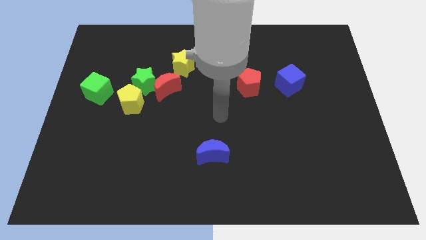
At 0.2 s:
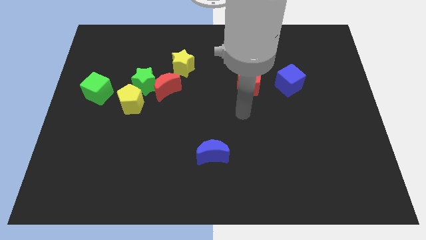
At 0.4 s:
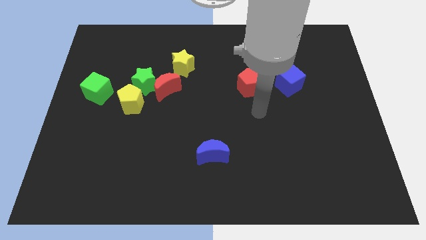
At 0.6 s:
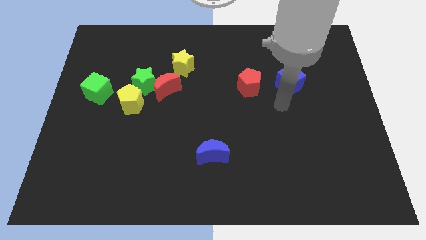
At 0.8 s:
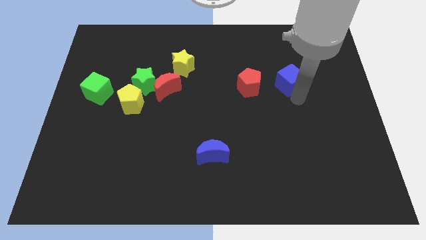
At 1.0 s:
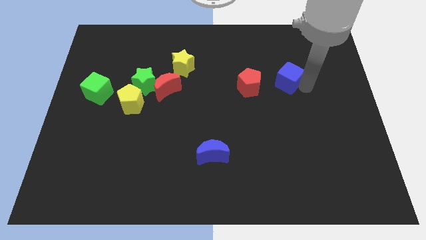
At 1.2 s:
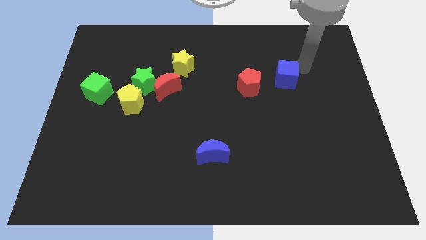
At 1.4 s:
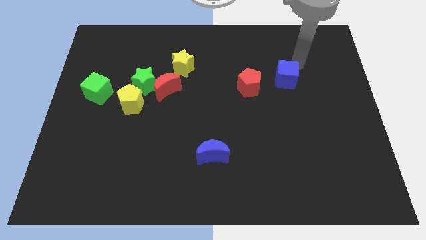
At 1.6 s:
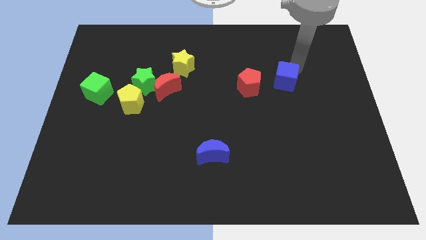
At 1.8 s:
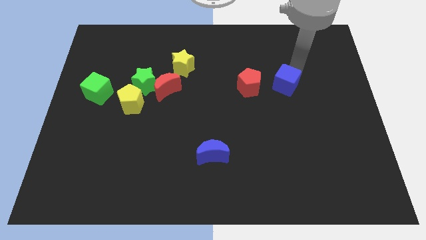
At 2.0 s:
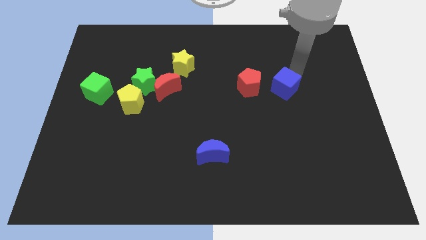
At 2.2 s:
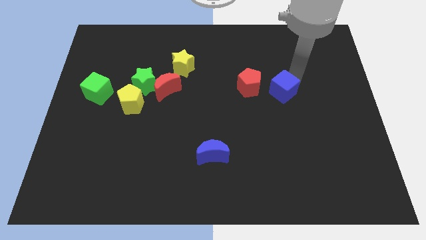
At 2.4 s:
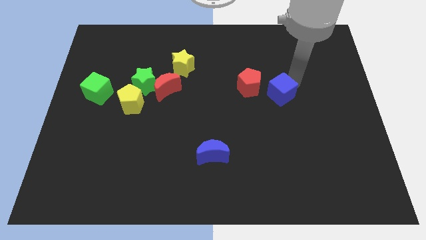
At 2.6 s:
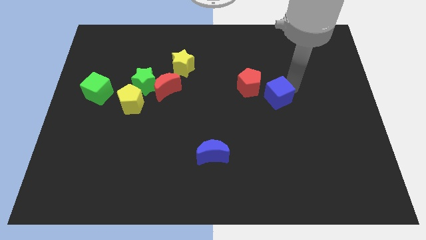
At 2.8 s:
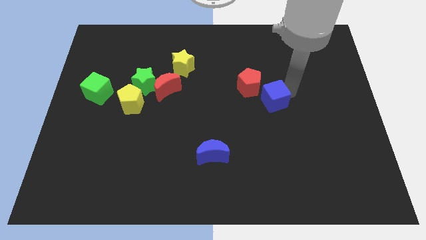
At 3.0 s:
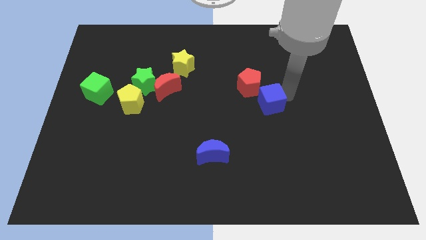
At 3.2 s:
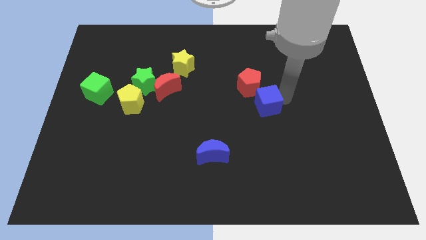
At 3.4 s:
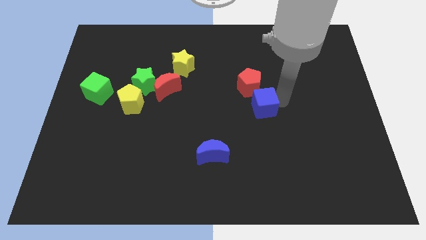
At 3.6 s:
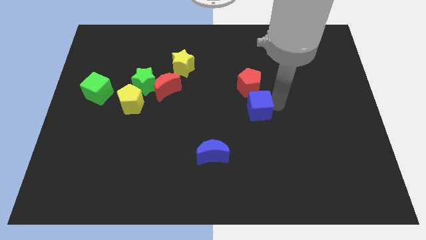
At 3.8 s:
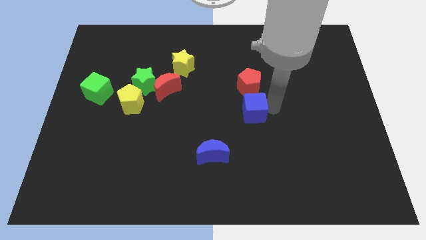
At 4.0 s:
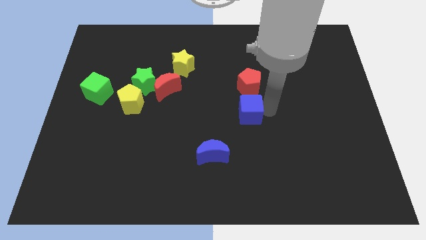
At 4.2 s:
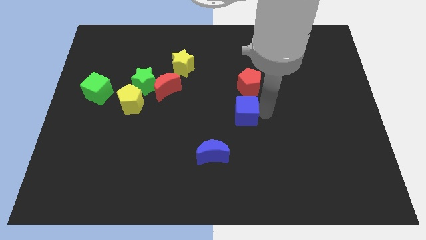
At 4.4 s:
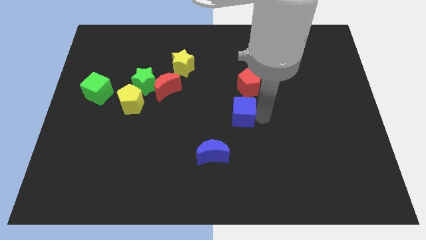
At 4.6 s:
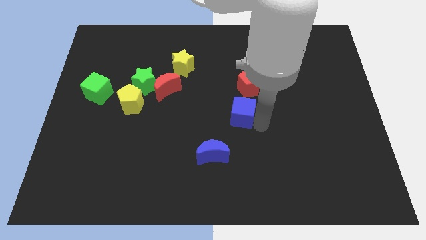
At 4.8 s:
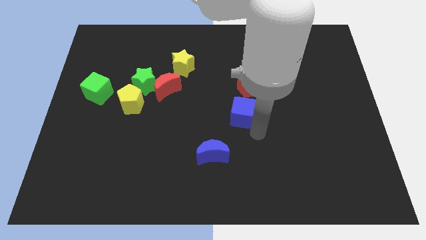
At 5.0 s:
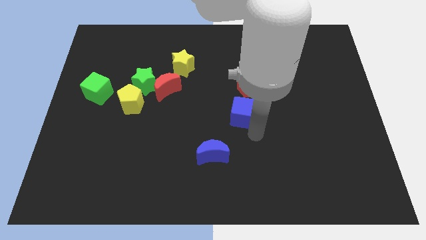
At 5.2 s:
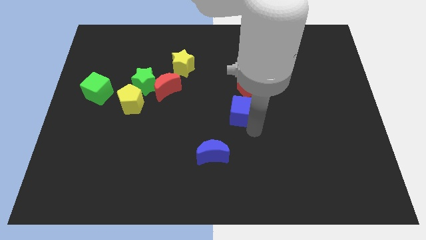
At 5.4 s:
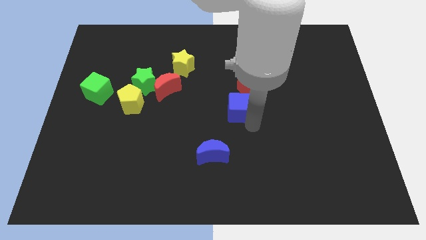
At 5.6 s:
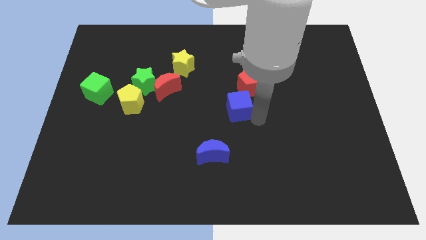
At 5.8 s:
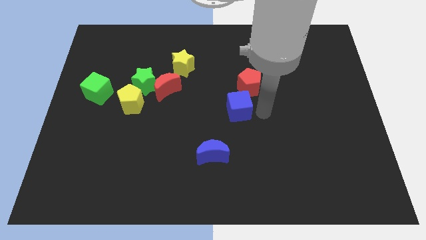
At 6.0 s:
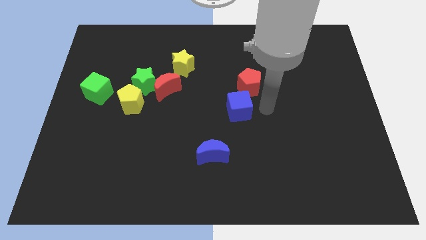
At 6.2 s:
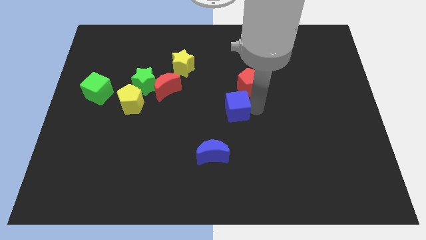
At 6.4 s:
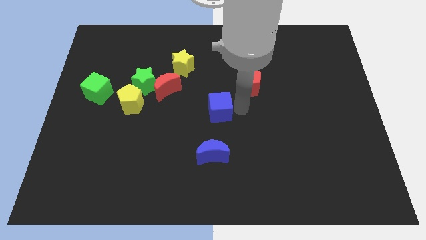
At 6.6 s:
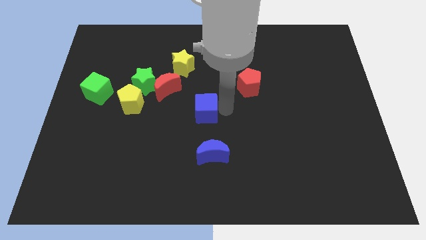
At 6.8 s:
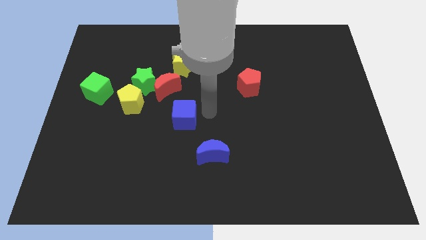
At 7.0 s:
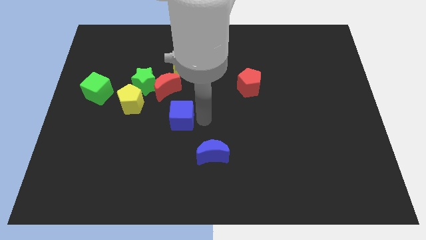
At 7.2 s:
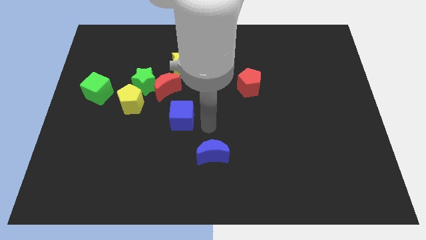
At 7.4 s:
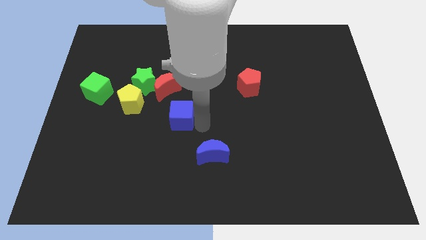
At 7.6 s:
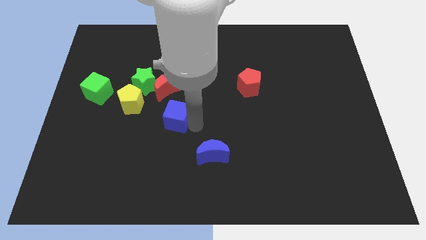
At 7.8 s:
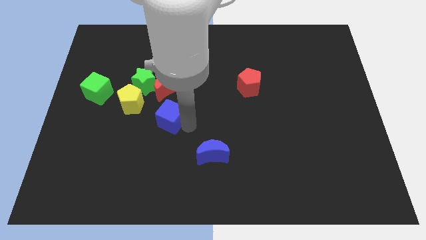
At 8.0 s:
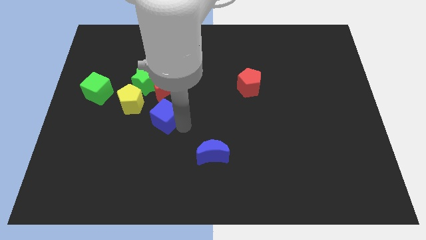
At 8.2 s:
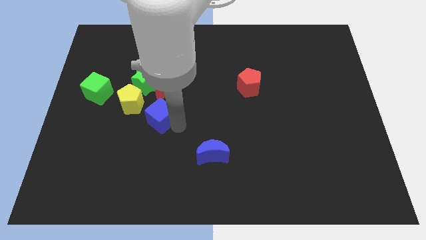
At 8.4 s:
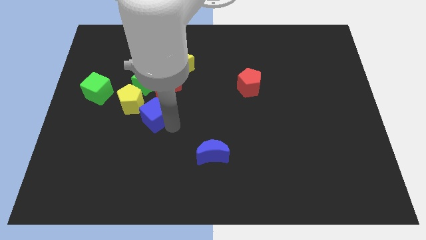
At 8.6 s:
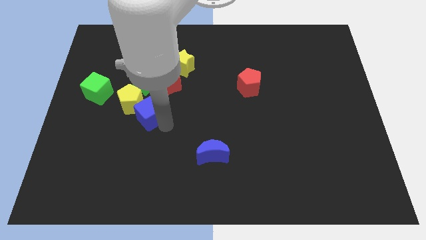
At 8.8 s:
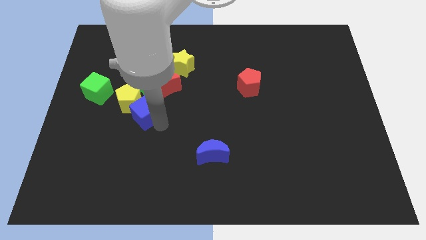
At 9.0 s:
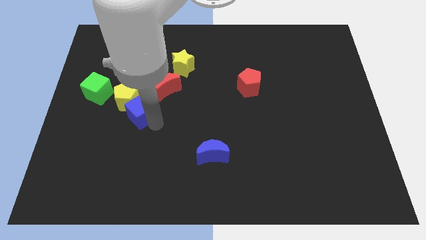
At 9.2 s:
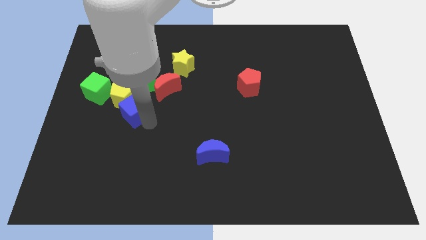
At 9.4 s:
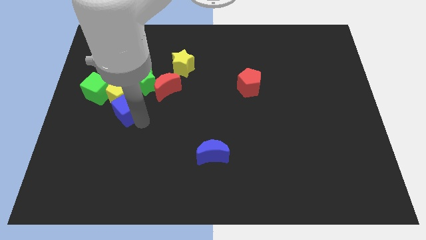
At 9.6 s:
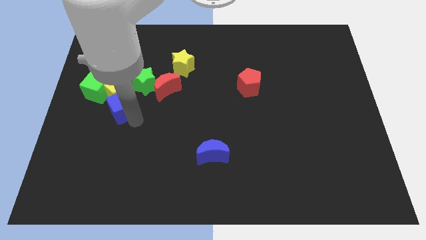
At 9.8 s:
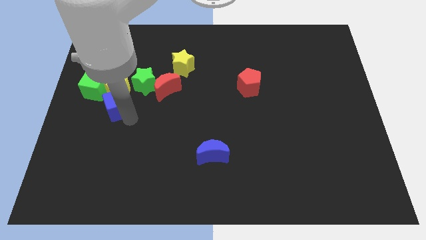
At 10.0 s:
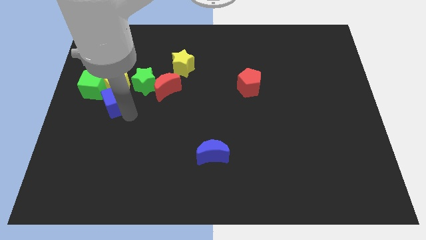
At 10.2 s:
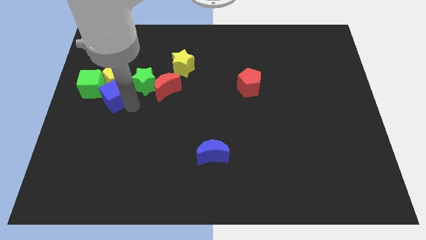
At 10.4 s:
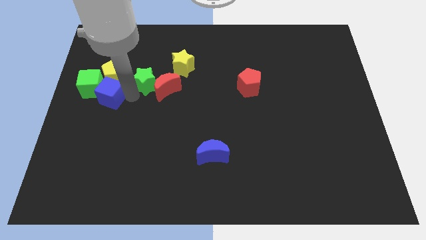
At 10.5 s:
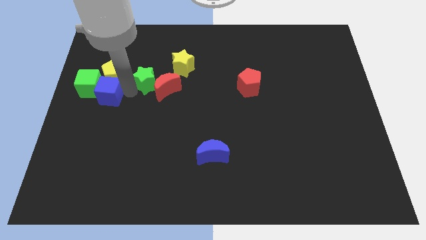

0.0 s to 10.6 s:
move the blue cube to the left side

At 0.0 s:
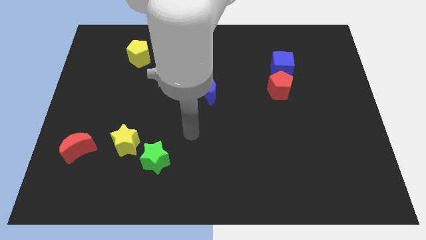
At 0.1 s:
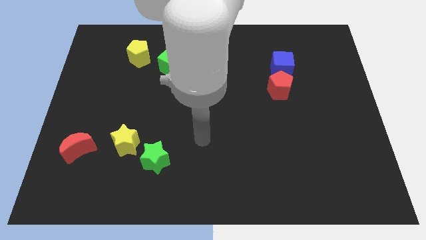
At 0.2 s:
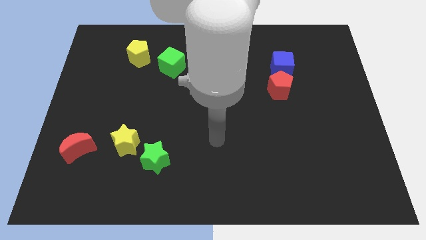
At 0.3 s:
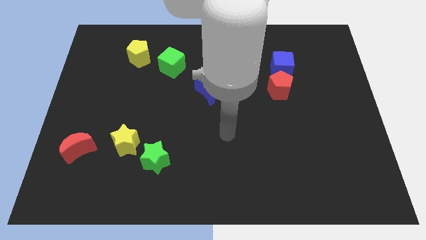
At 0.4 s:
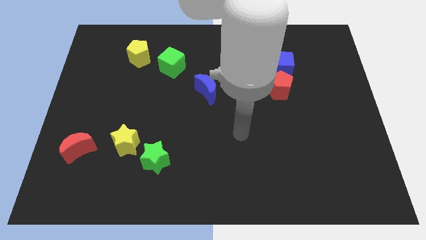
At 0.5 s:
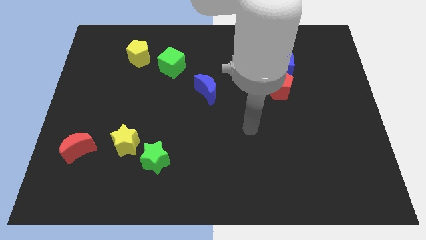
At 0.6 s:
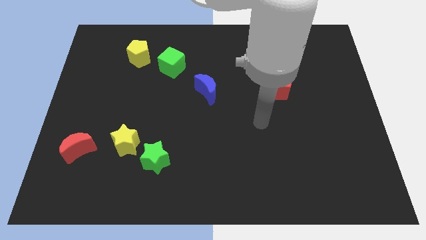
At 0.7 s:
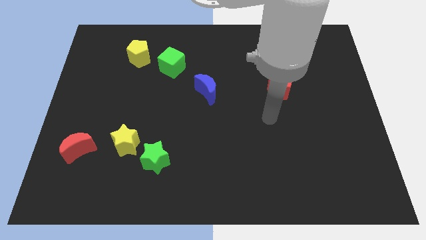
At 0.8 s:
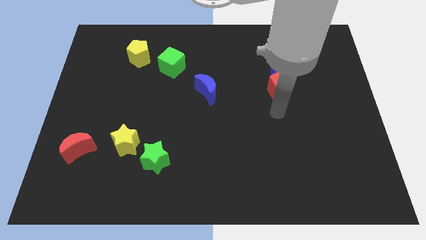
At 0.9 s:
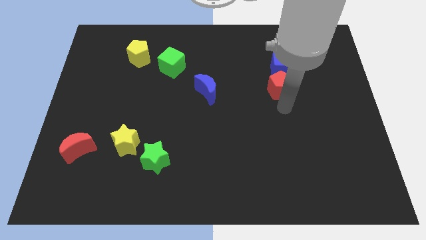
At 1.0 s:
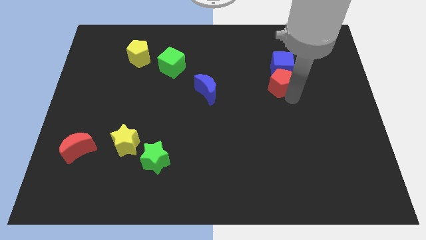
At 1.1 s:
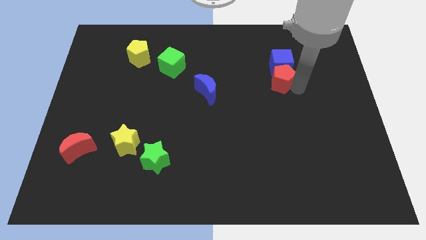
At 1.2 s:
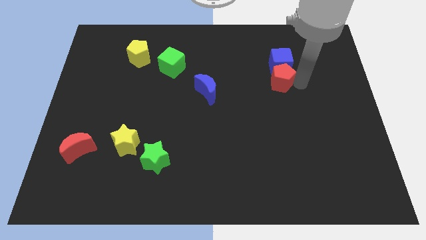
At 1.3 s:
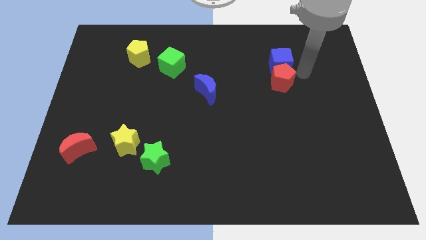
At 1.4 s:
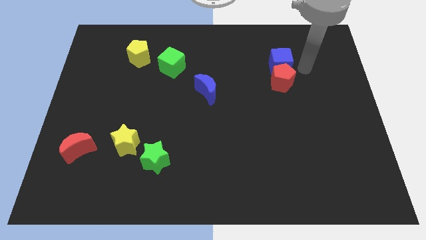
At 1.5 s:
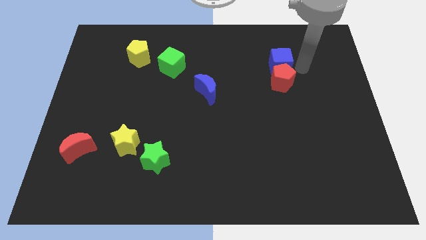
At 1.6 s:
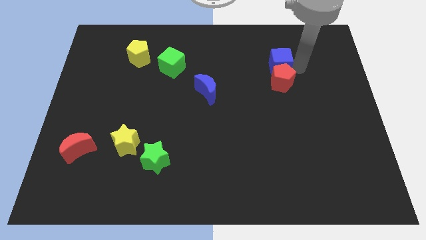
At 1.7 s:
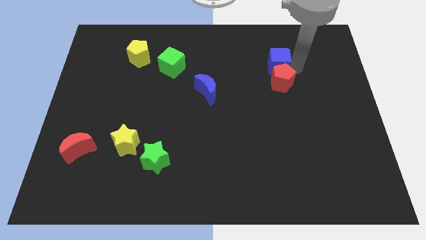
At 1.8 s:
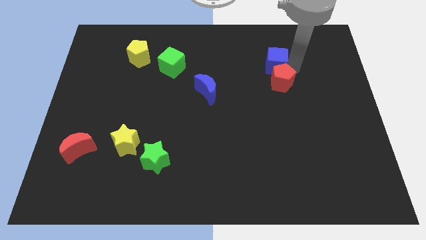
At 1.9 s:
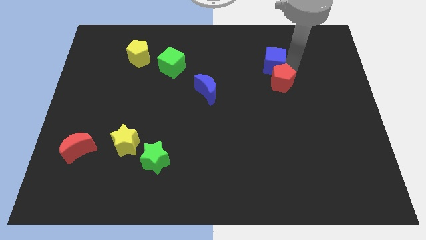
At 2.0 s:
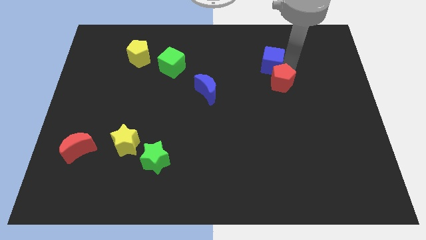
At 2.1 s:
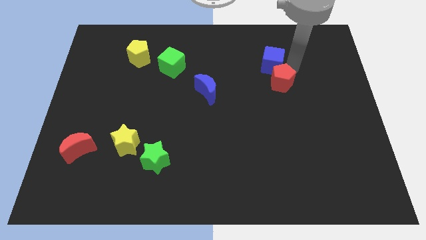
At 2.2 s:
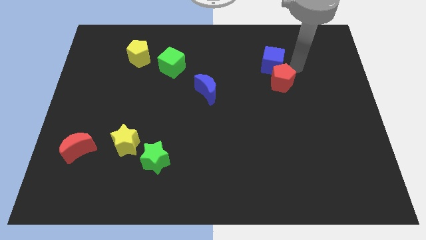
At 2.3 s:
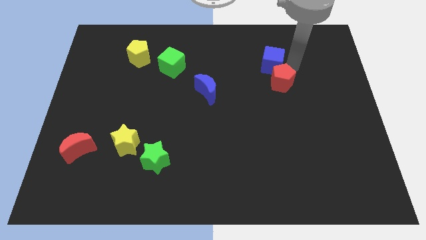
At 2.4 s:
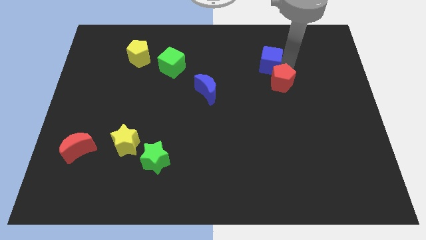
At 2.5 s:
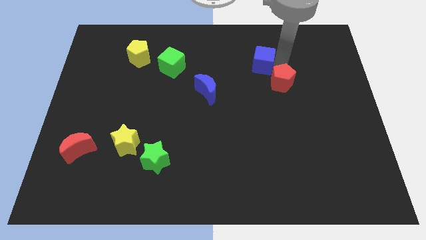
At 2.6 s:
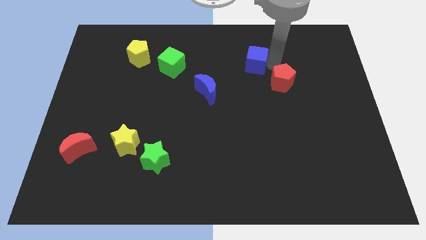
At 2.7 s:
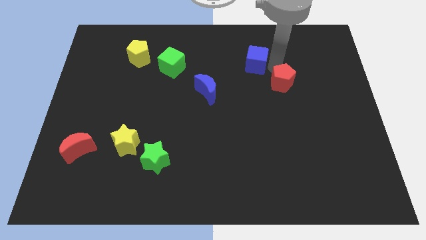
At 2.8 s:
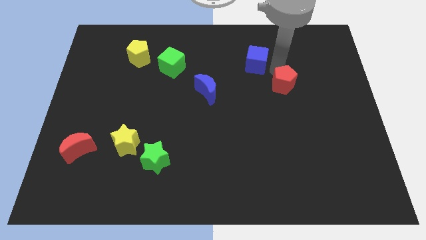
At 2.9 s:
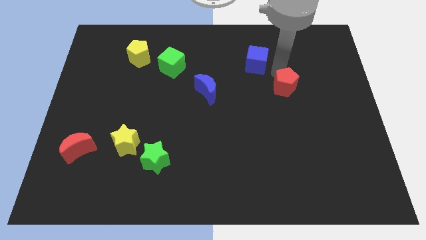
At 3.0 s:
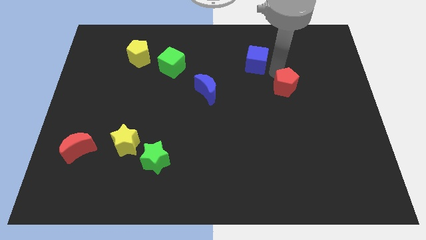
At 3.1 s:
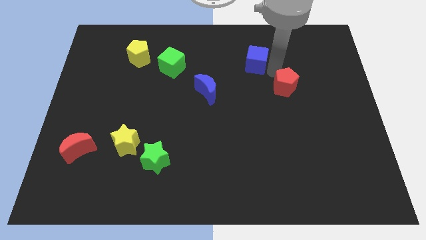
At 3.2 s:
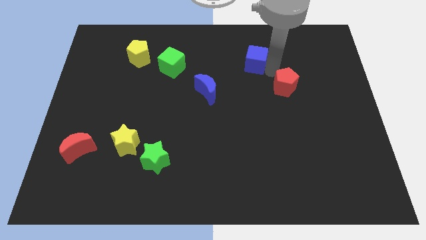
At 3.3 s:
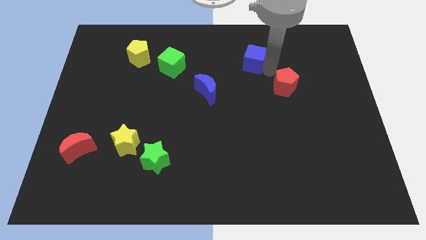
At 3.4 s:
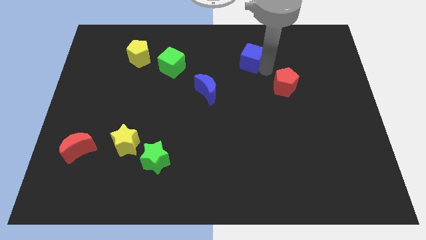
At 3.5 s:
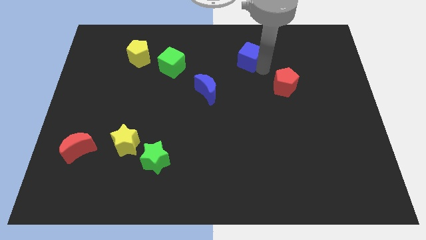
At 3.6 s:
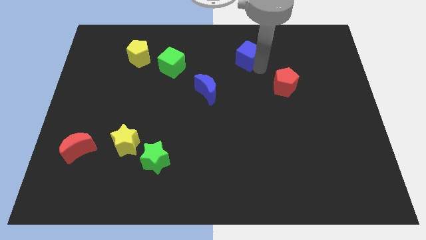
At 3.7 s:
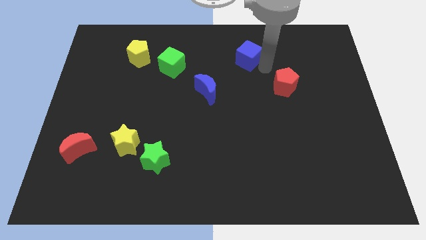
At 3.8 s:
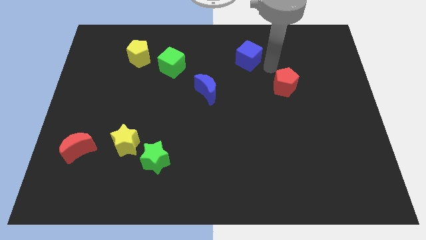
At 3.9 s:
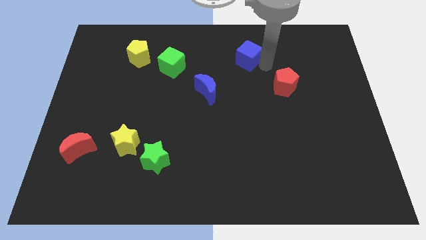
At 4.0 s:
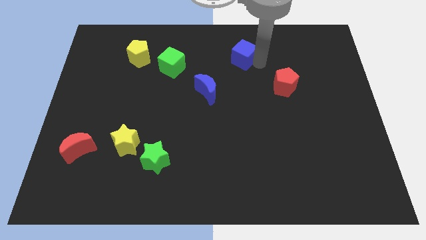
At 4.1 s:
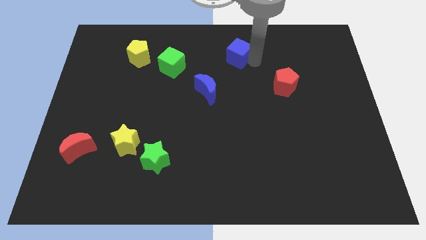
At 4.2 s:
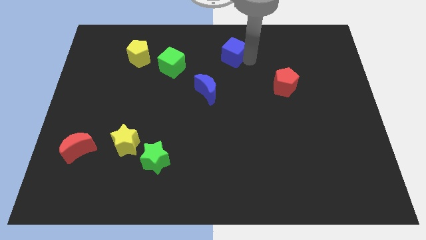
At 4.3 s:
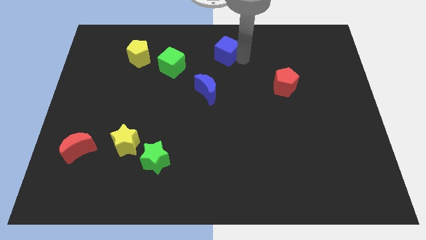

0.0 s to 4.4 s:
put the blue cube to the top side
